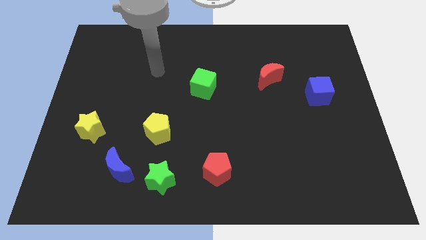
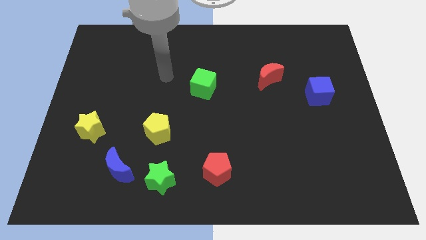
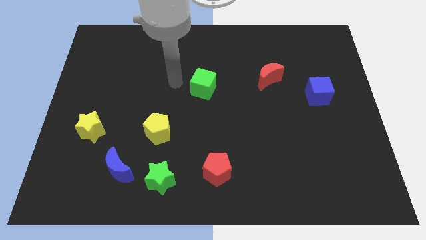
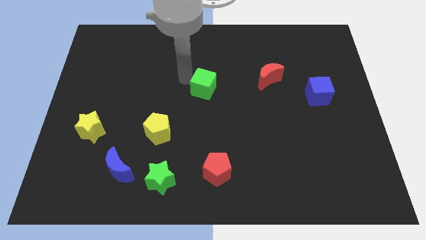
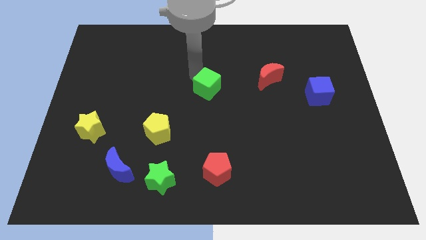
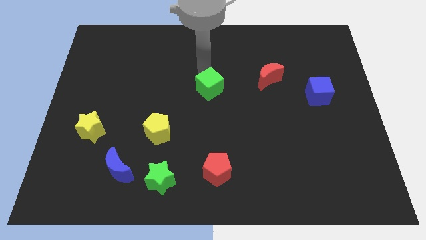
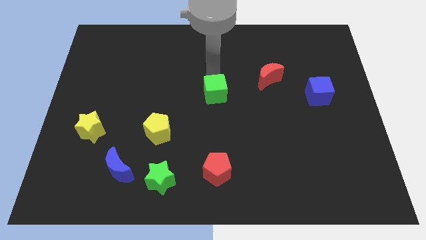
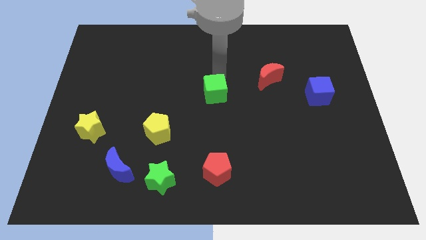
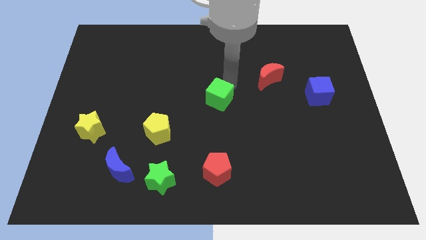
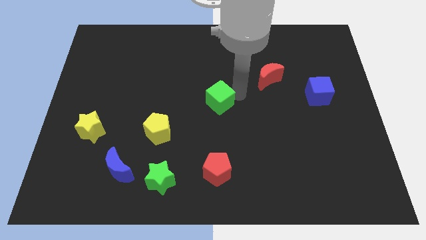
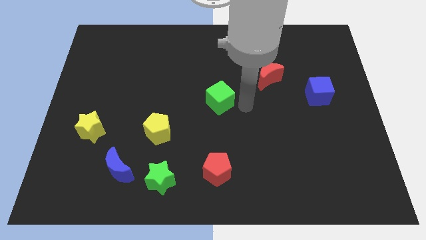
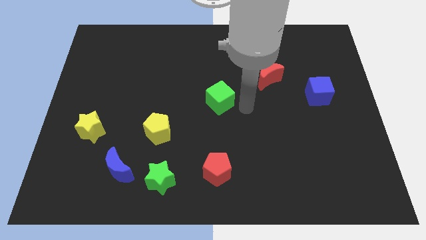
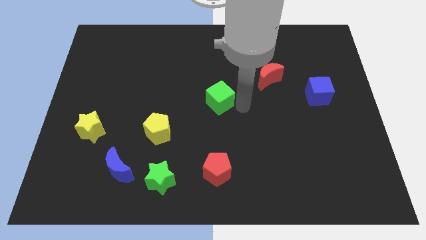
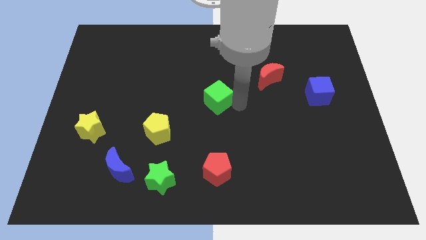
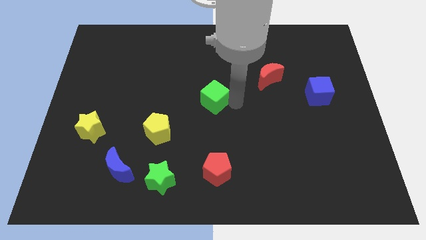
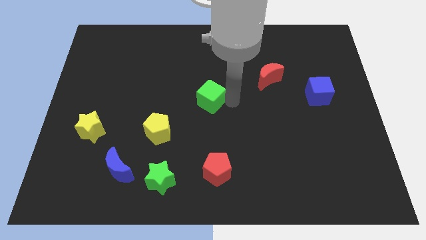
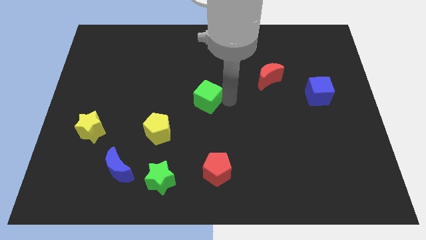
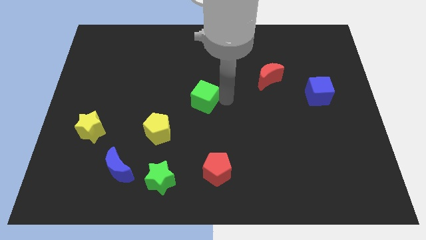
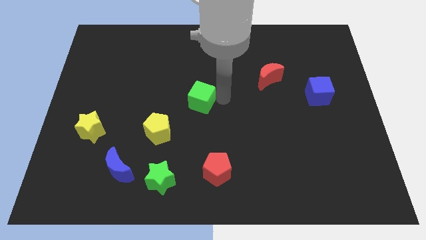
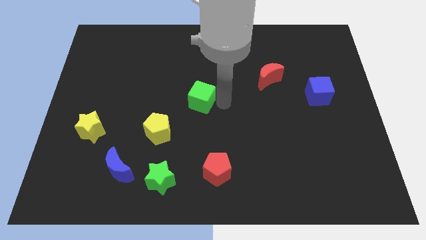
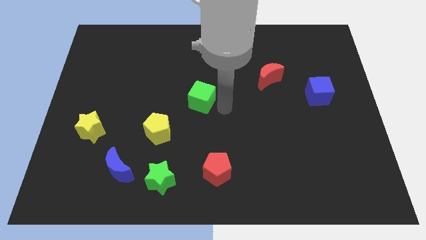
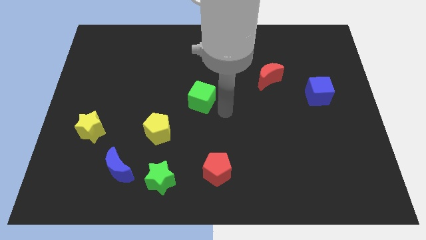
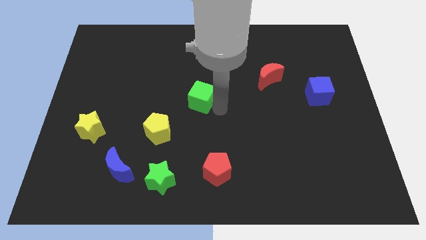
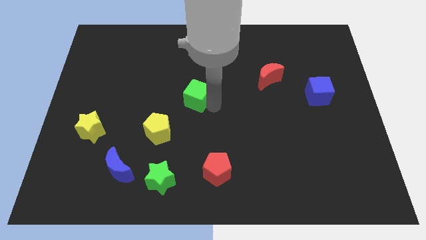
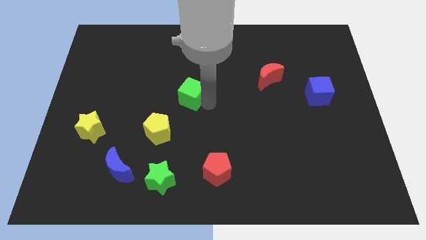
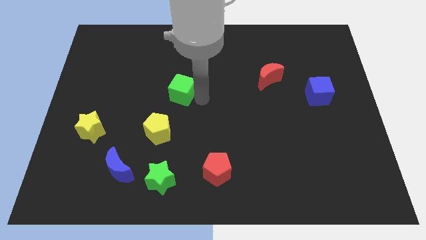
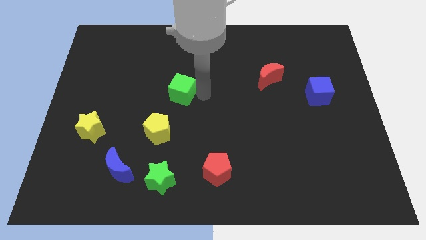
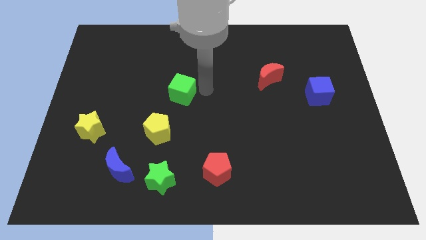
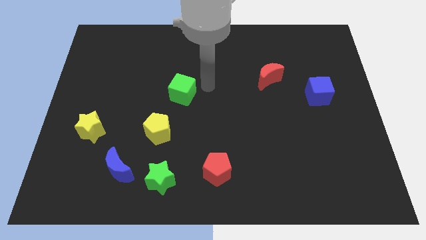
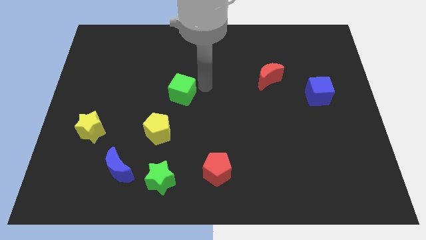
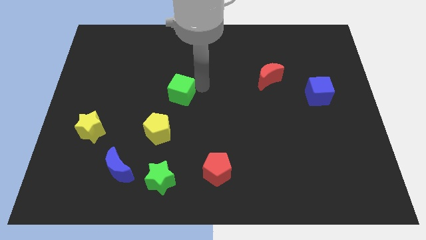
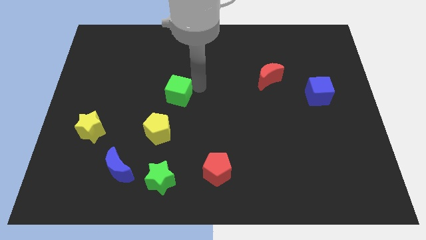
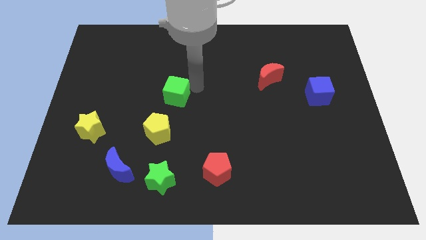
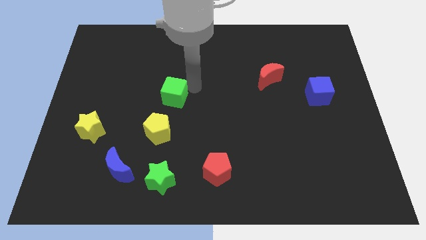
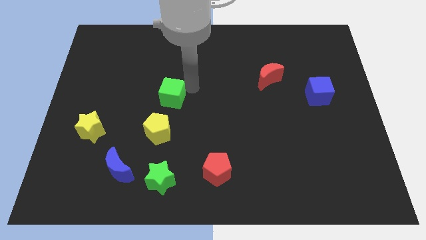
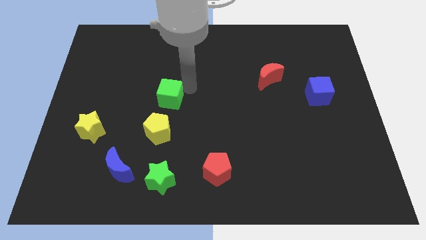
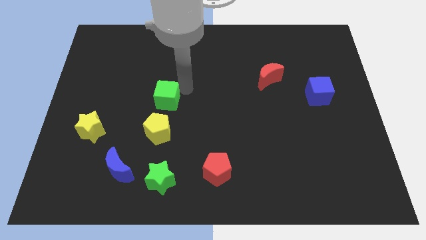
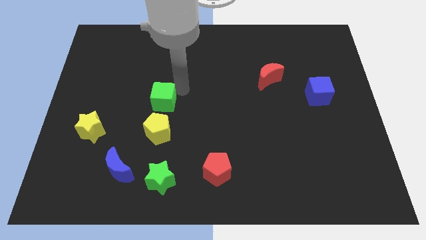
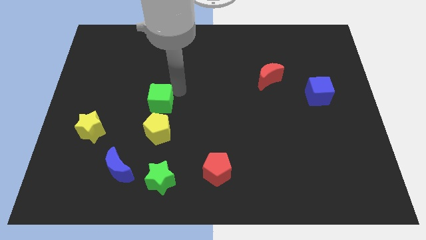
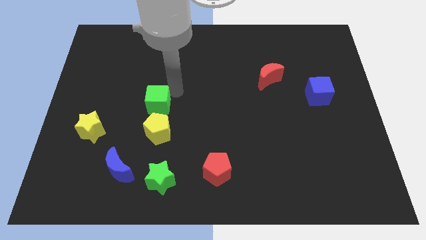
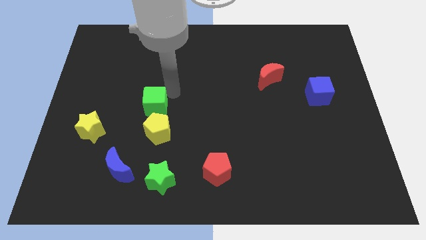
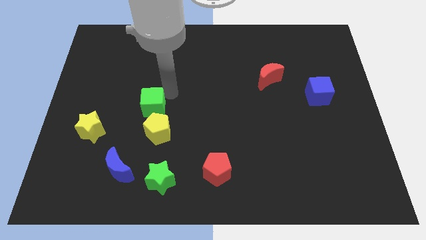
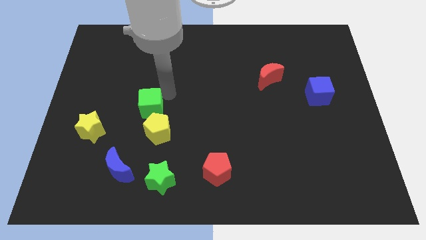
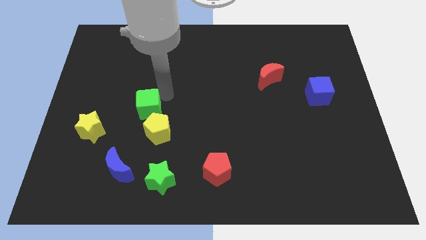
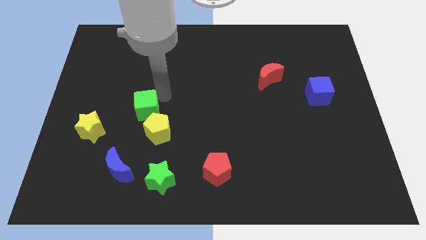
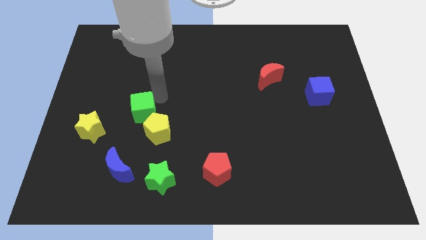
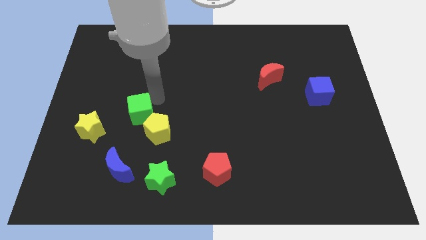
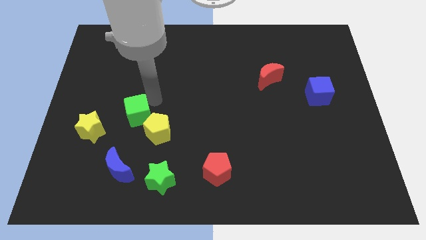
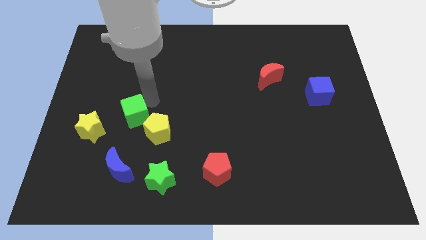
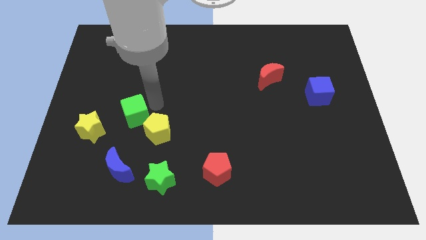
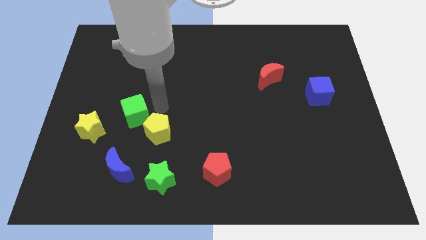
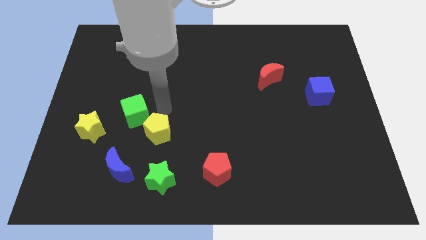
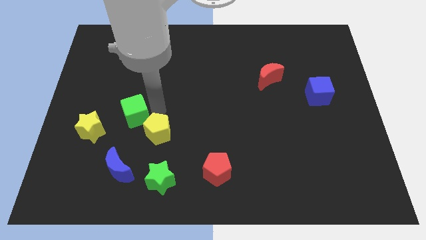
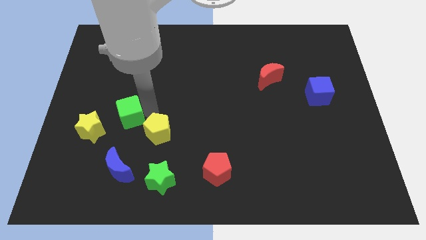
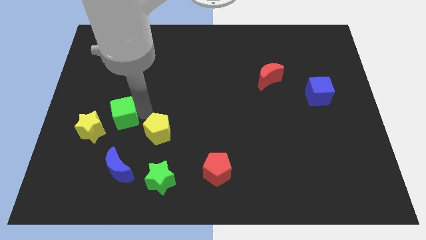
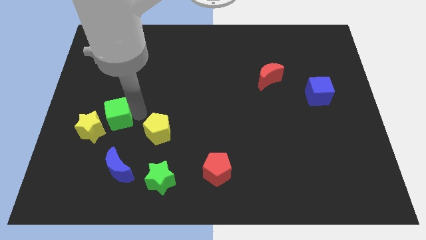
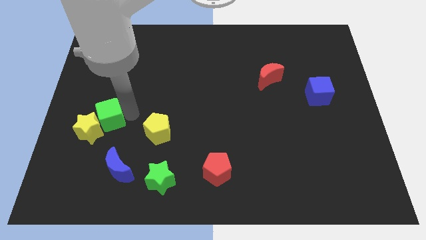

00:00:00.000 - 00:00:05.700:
move the green cube to the yellow star
